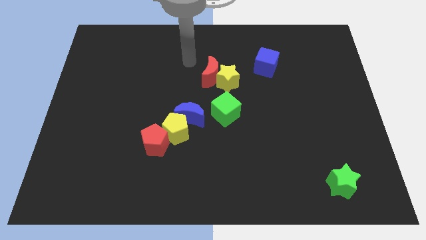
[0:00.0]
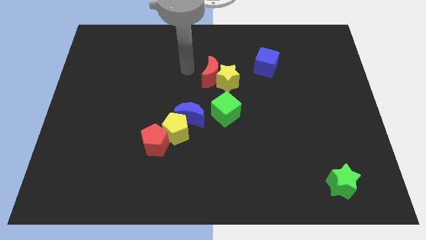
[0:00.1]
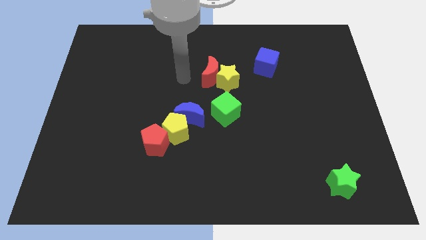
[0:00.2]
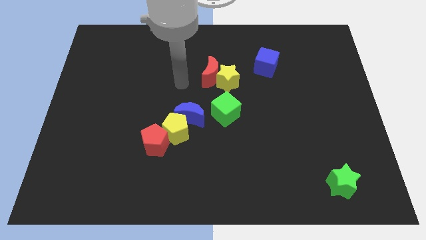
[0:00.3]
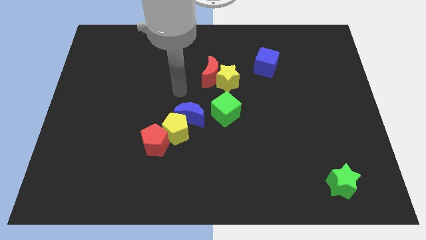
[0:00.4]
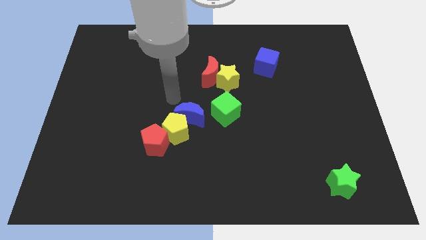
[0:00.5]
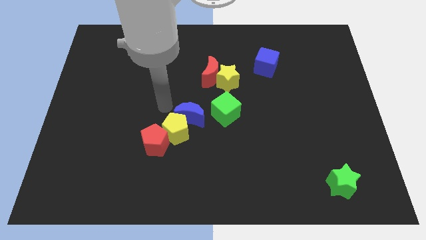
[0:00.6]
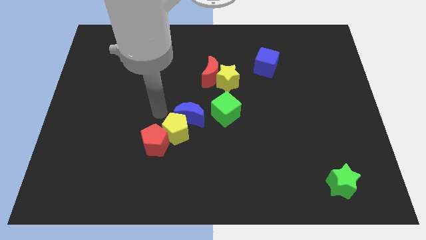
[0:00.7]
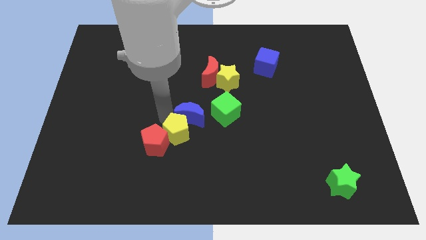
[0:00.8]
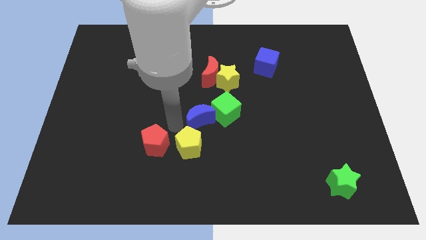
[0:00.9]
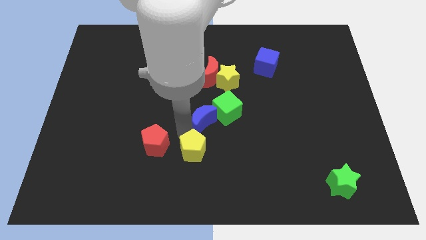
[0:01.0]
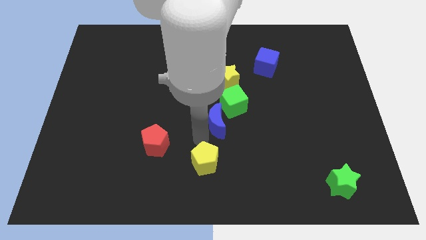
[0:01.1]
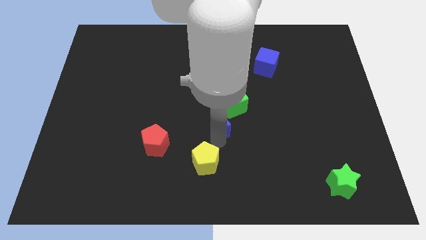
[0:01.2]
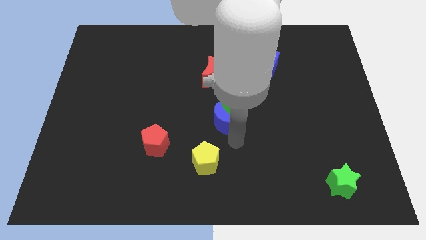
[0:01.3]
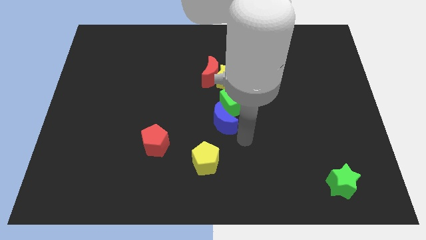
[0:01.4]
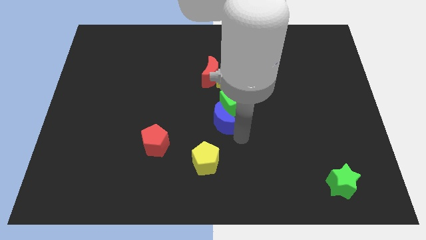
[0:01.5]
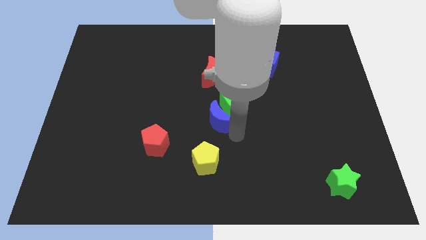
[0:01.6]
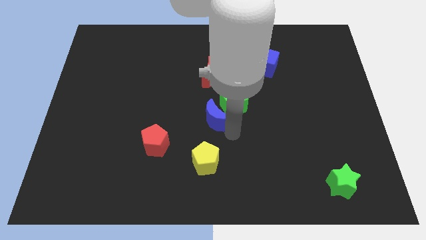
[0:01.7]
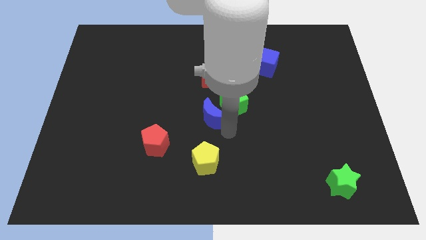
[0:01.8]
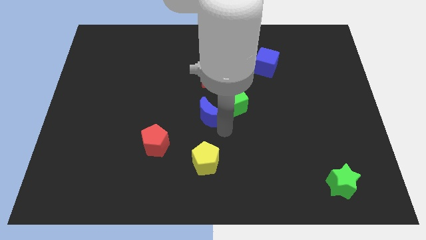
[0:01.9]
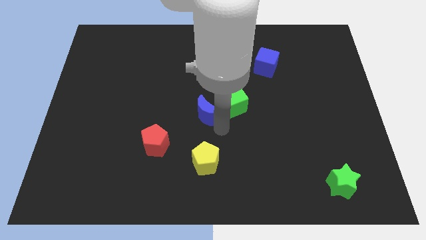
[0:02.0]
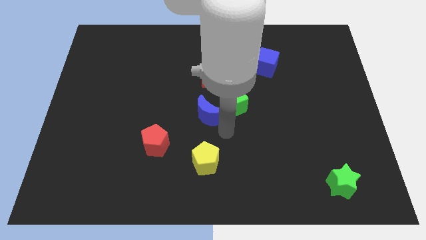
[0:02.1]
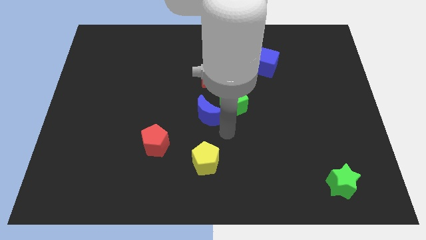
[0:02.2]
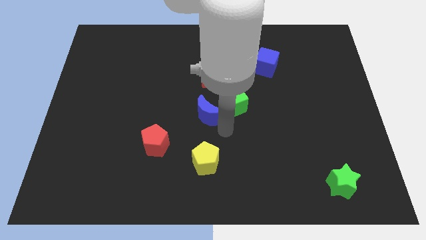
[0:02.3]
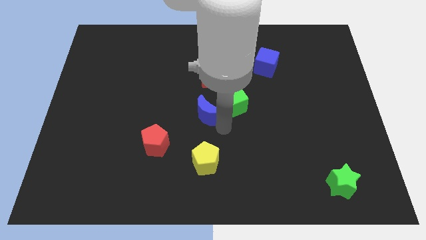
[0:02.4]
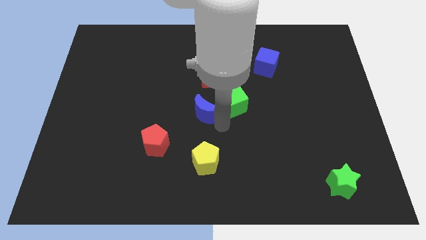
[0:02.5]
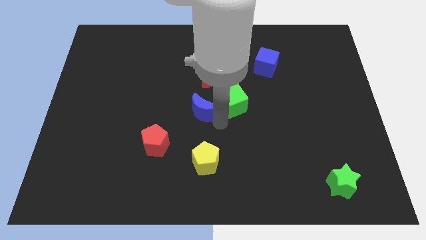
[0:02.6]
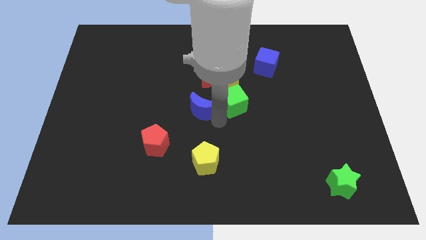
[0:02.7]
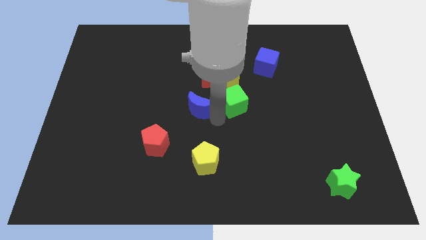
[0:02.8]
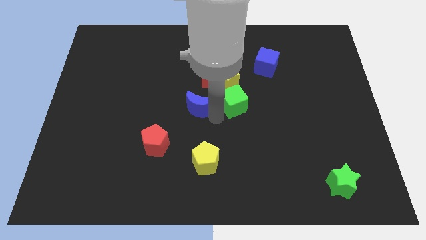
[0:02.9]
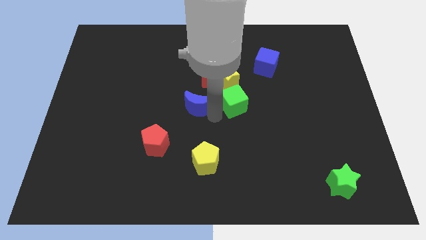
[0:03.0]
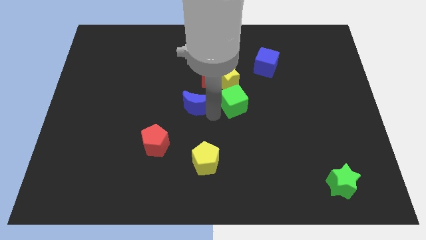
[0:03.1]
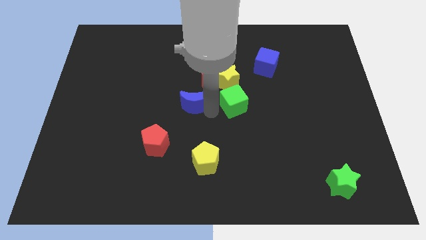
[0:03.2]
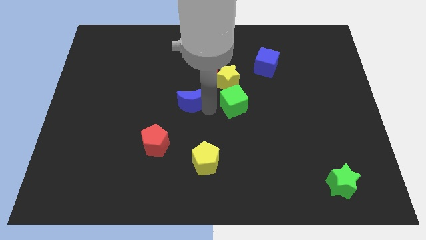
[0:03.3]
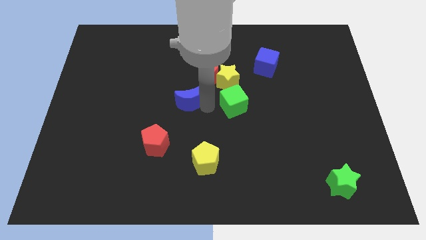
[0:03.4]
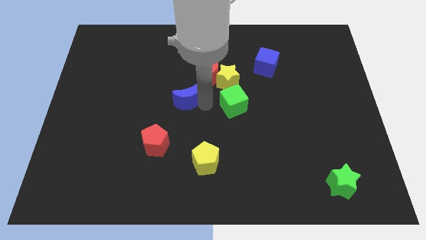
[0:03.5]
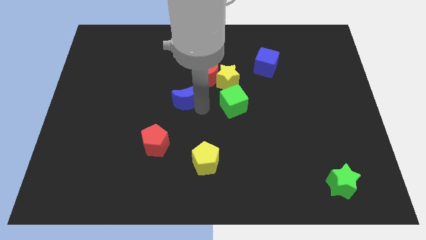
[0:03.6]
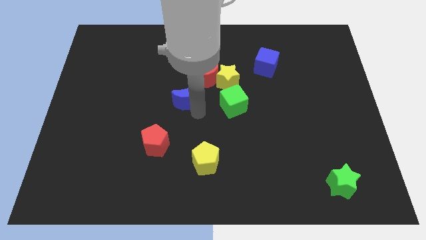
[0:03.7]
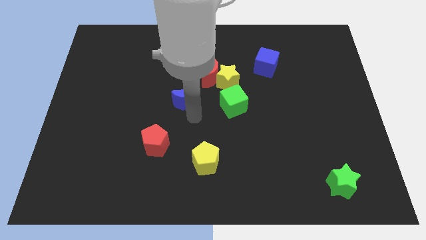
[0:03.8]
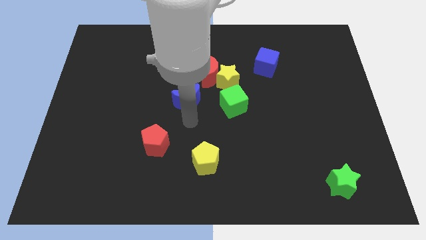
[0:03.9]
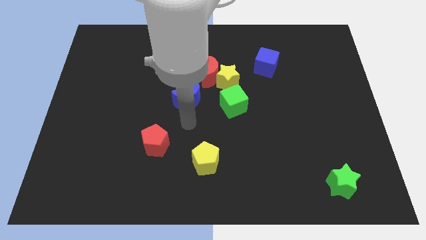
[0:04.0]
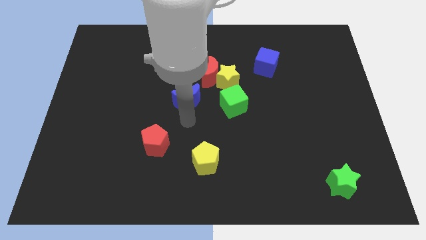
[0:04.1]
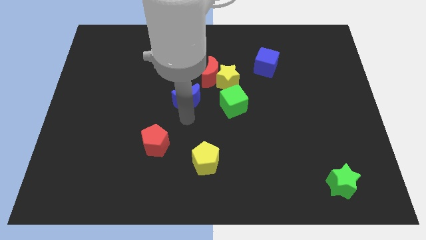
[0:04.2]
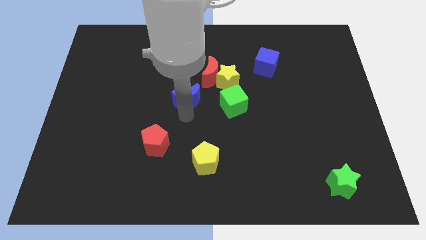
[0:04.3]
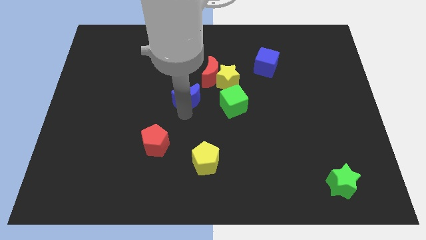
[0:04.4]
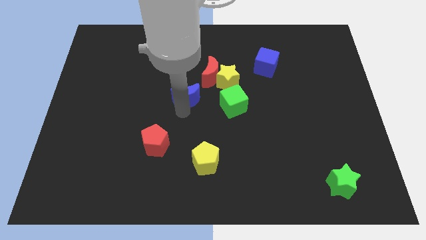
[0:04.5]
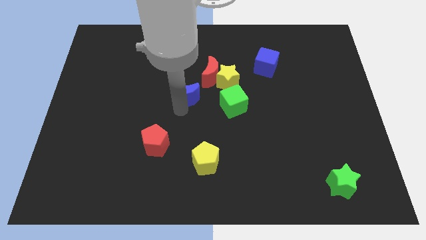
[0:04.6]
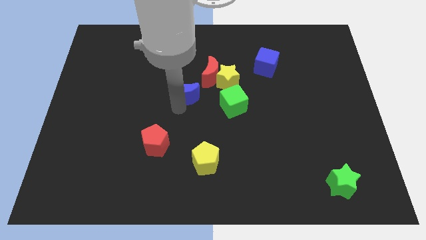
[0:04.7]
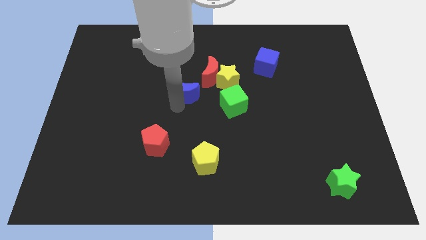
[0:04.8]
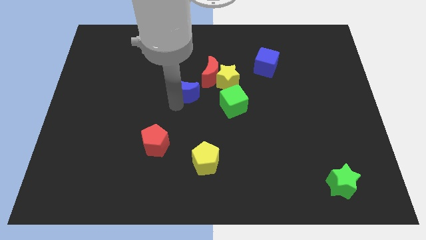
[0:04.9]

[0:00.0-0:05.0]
move the blue moon a bit up

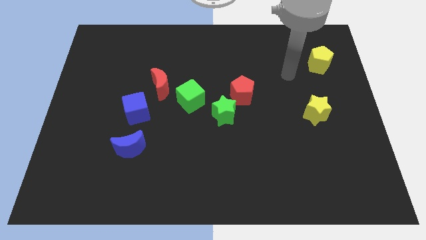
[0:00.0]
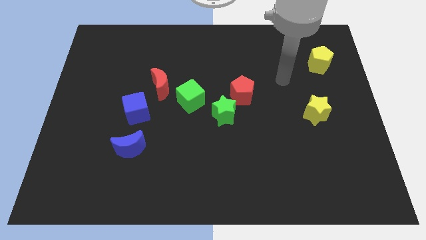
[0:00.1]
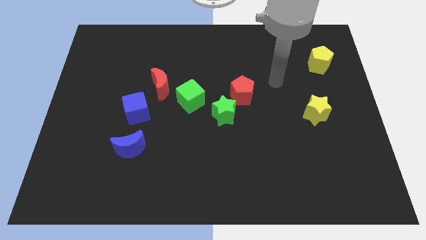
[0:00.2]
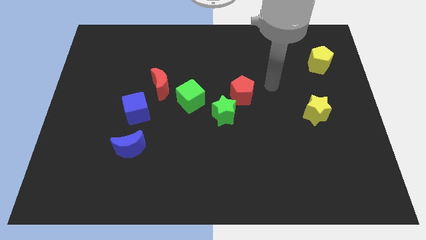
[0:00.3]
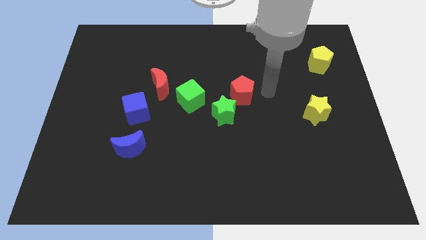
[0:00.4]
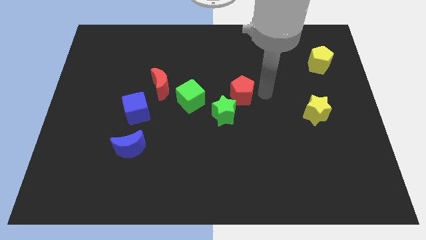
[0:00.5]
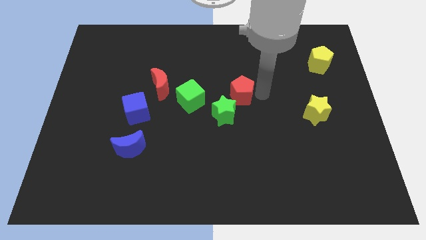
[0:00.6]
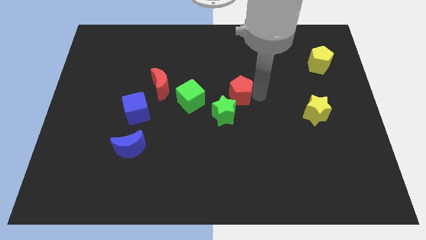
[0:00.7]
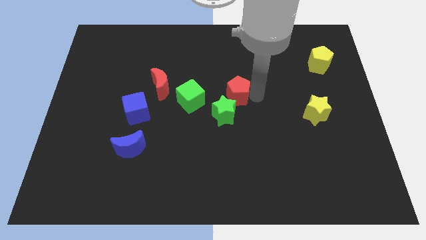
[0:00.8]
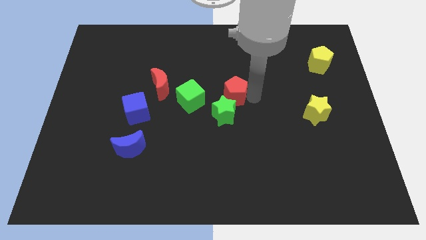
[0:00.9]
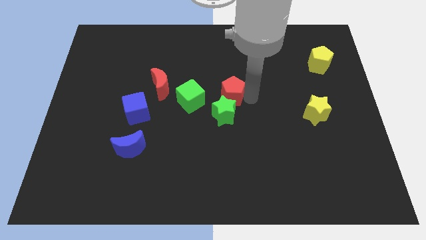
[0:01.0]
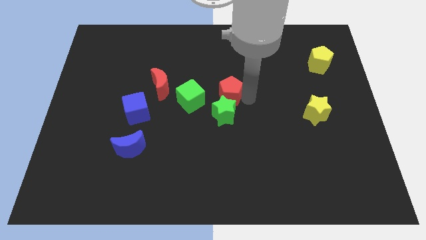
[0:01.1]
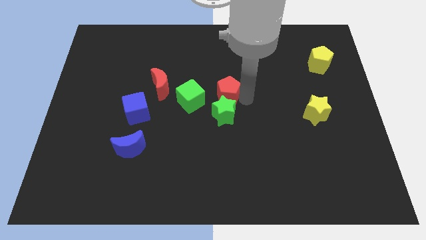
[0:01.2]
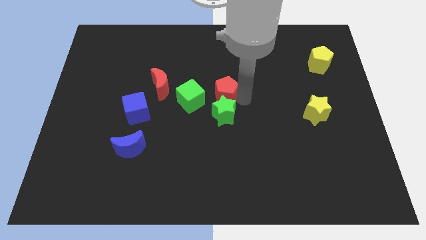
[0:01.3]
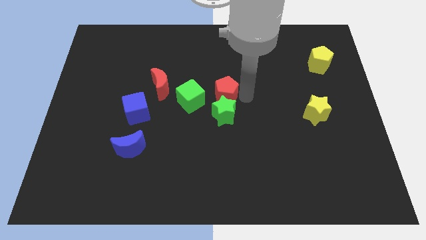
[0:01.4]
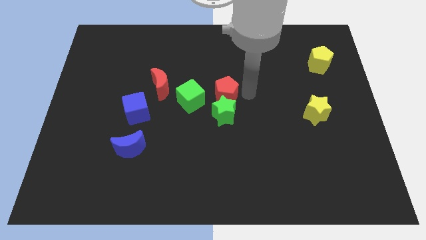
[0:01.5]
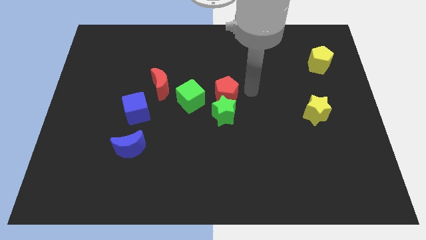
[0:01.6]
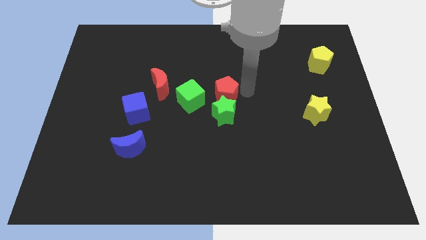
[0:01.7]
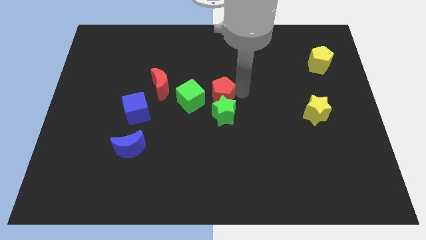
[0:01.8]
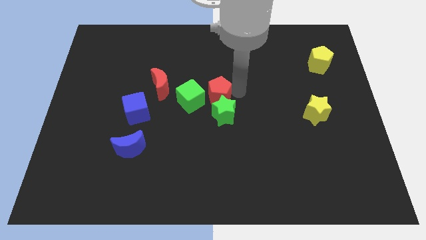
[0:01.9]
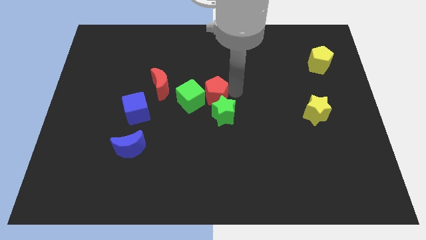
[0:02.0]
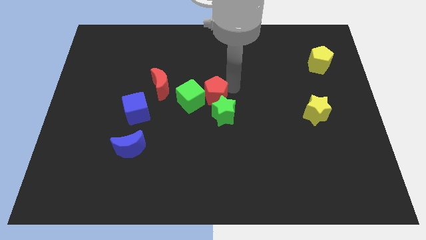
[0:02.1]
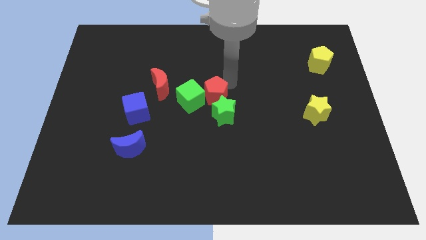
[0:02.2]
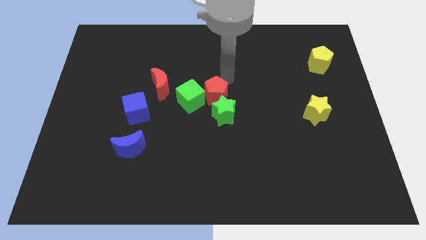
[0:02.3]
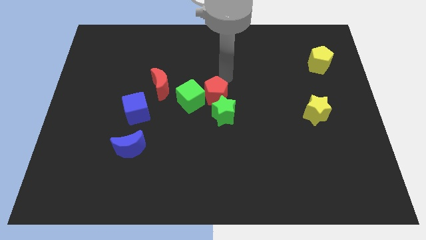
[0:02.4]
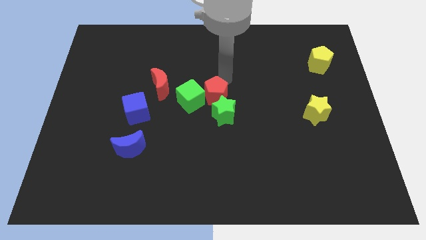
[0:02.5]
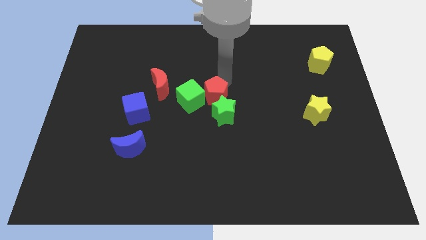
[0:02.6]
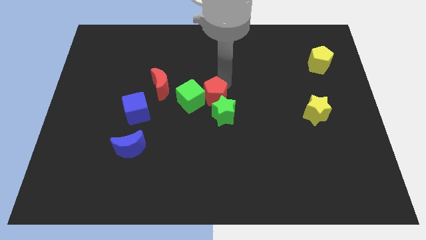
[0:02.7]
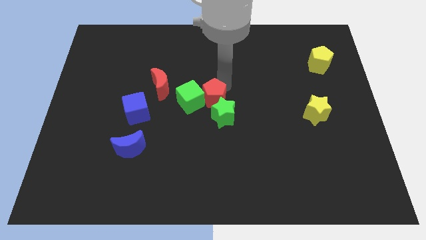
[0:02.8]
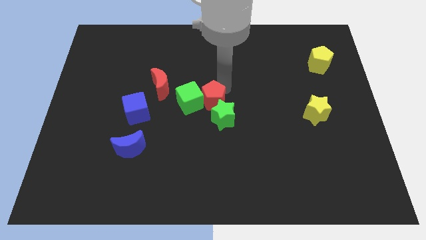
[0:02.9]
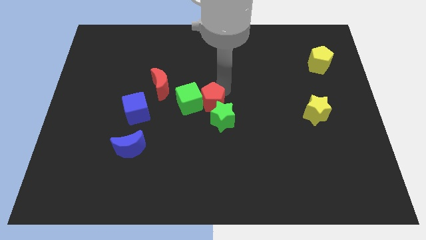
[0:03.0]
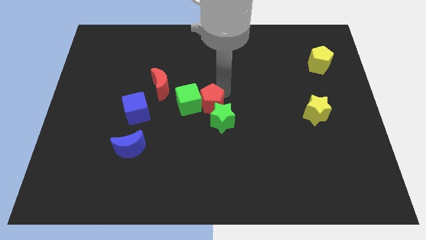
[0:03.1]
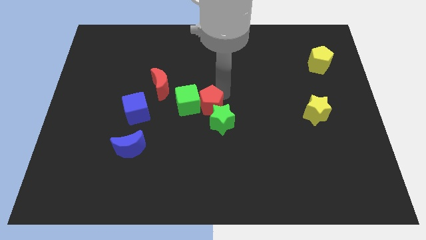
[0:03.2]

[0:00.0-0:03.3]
slightly slide the red pentagon downwards and to the left diagonally
